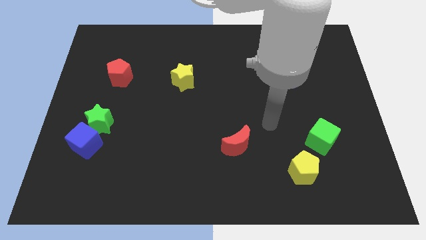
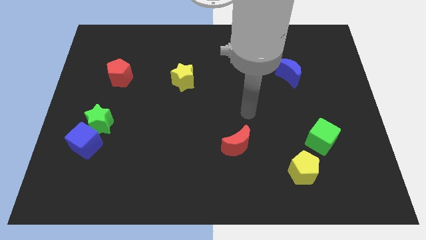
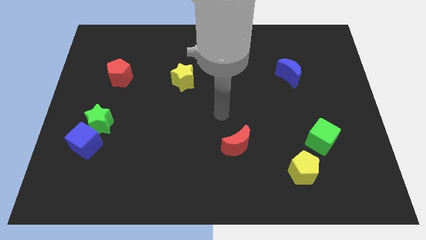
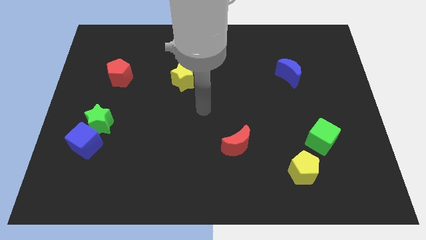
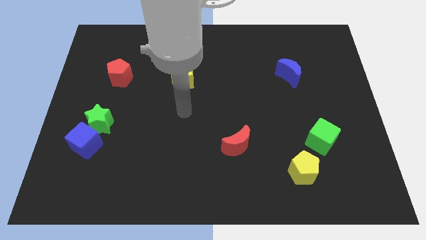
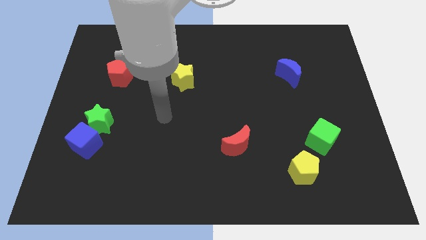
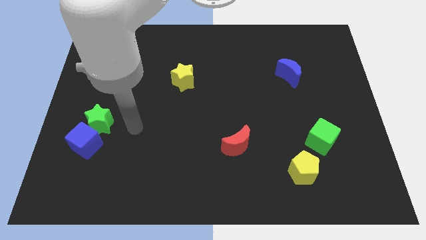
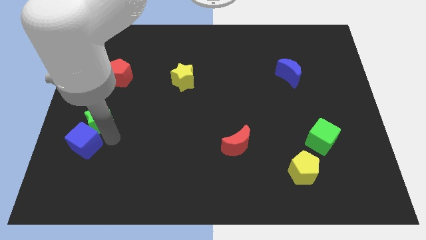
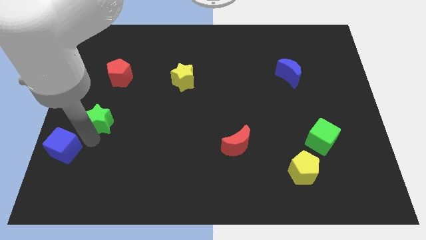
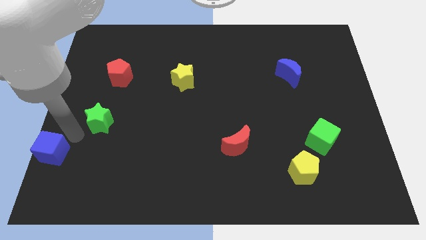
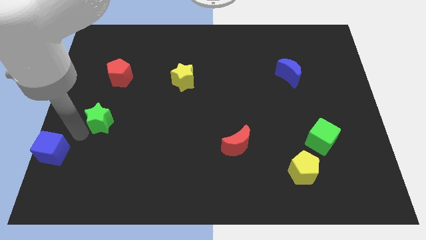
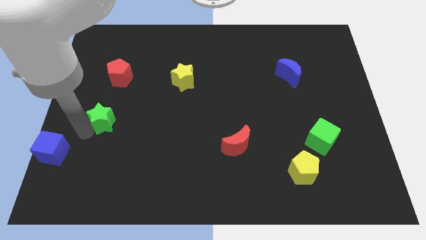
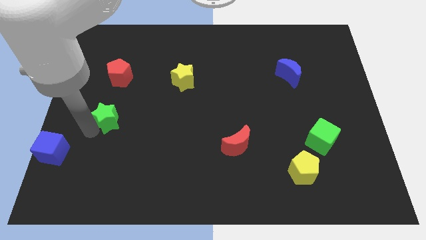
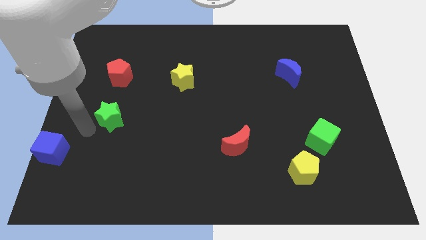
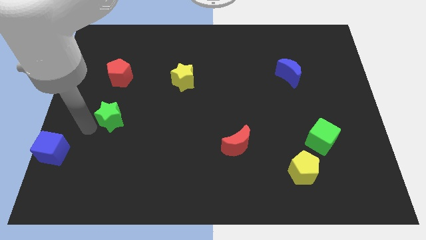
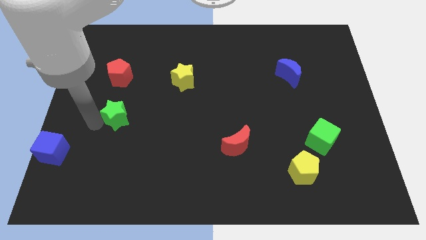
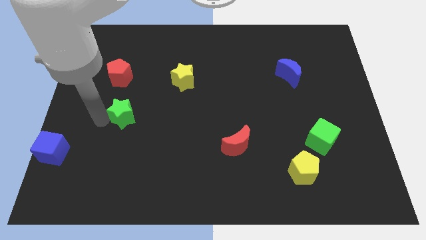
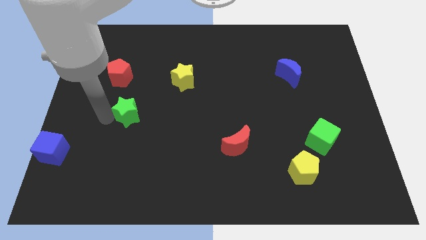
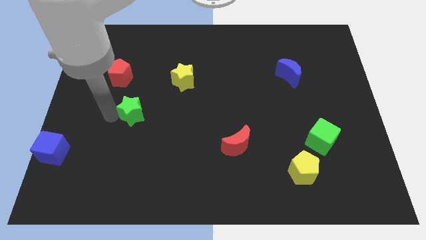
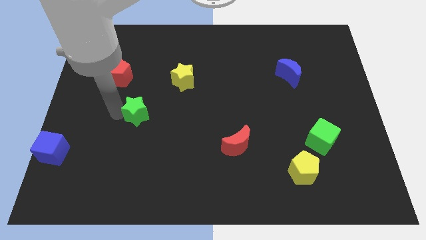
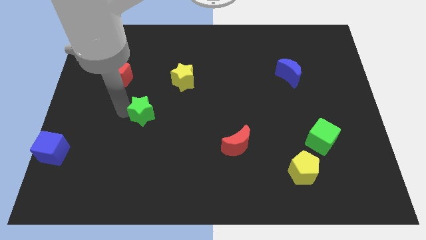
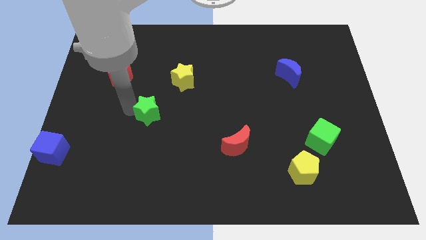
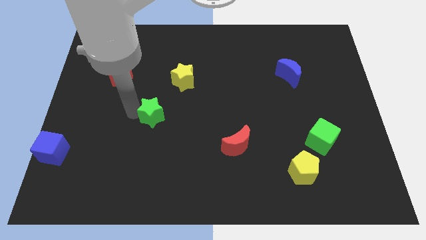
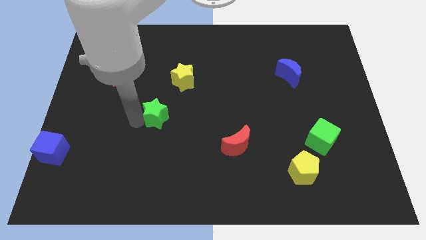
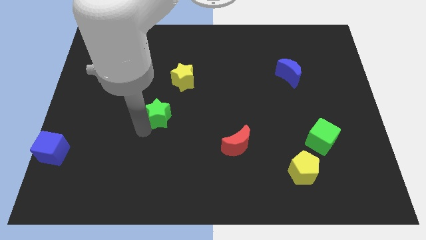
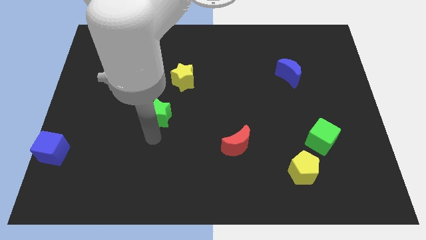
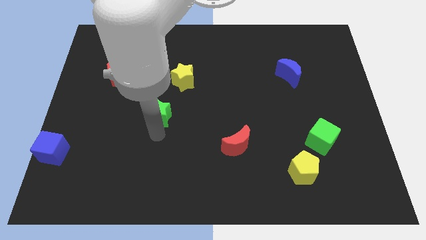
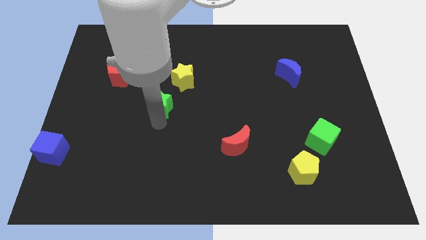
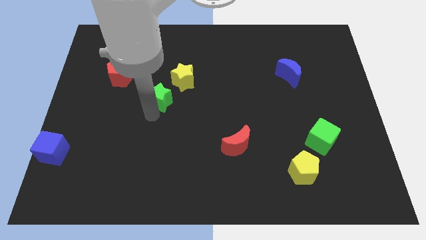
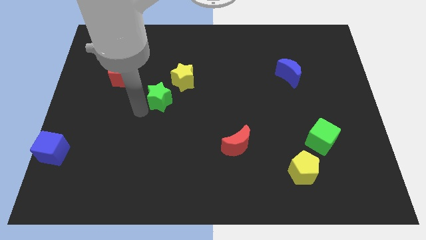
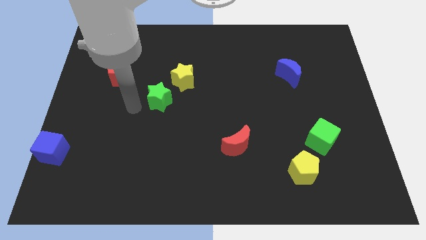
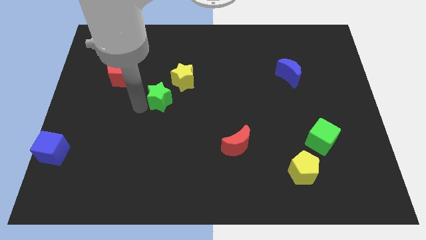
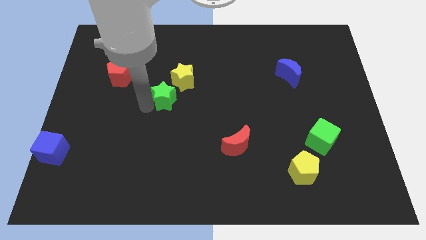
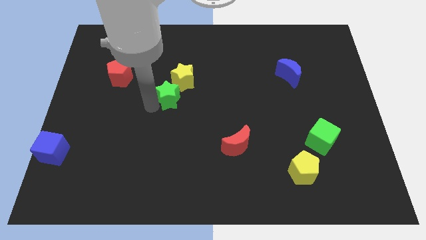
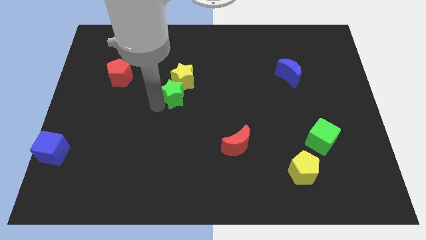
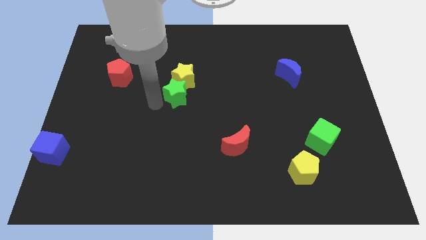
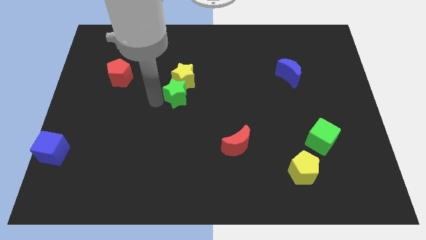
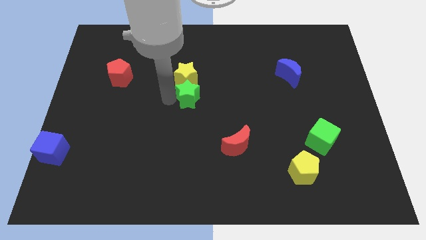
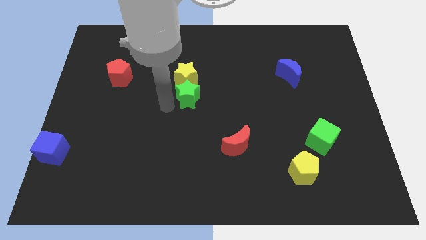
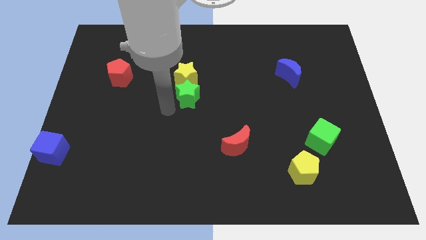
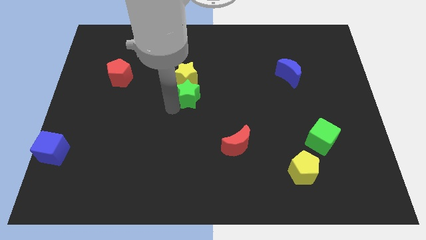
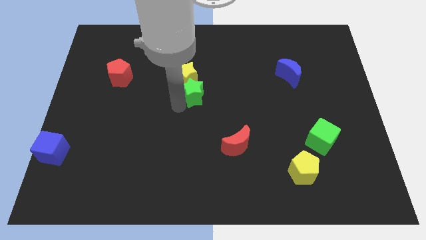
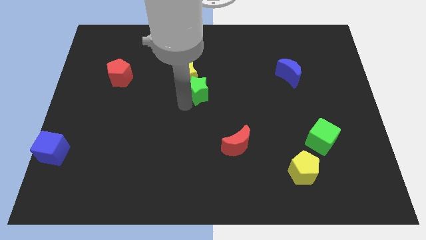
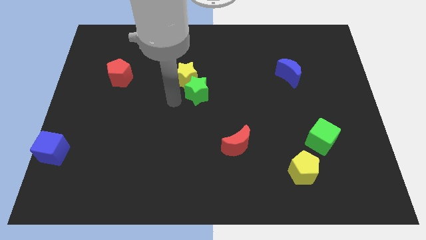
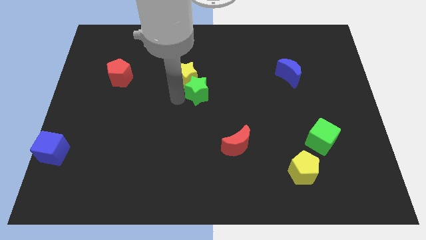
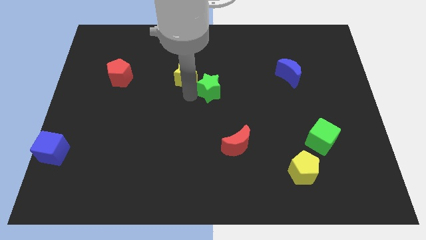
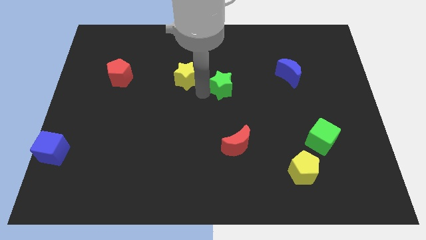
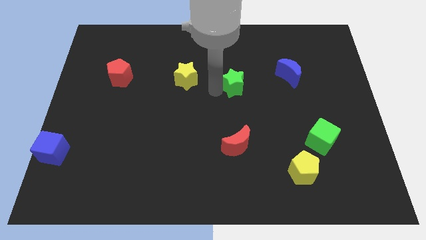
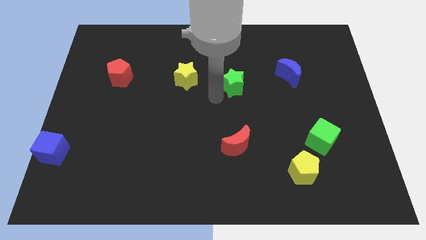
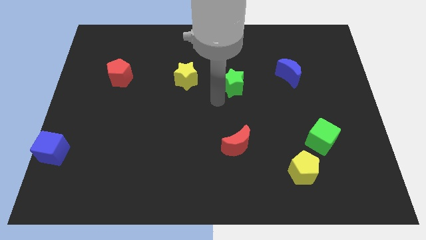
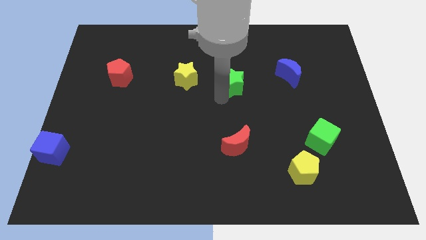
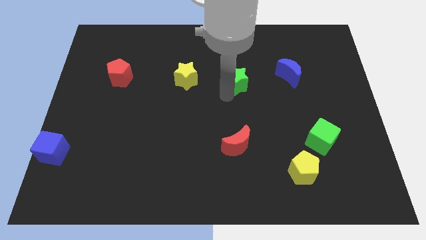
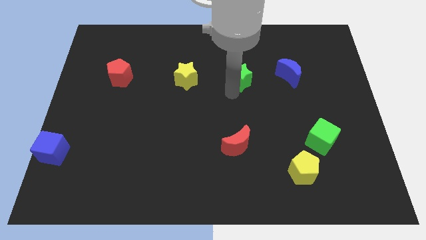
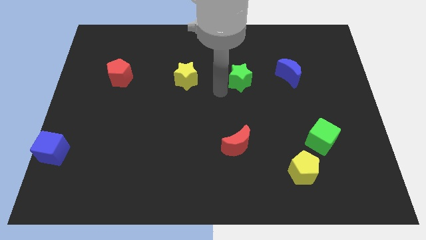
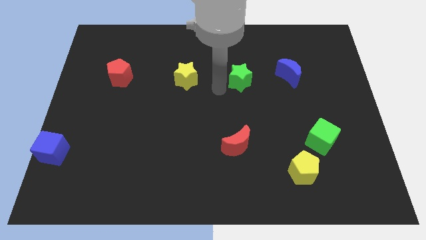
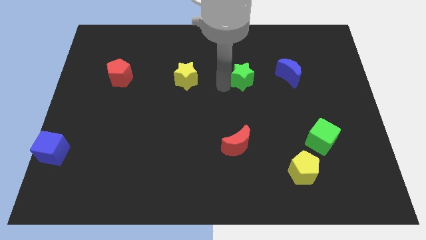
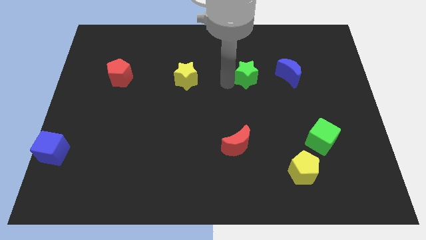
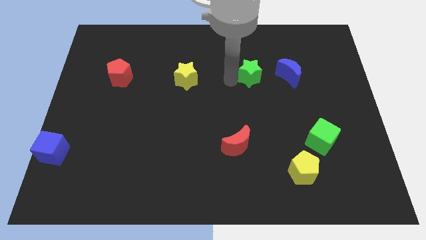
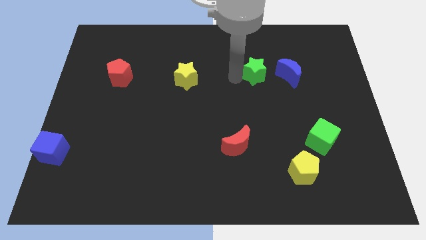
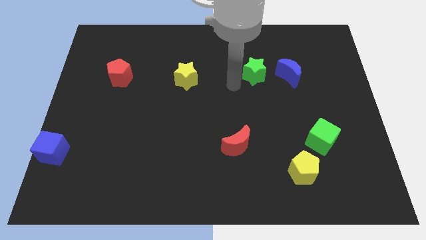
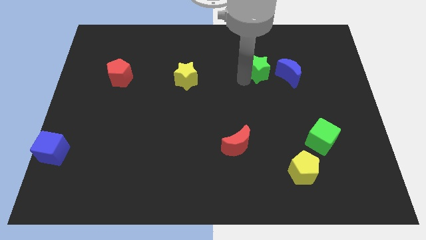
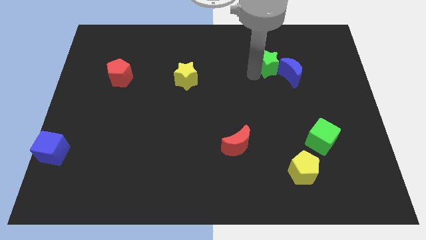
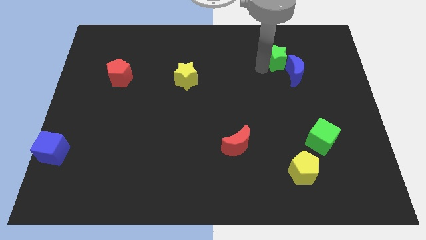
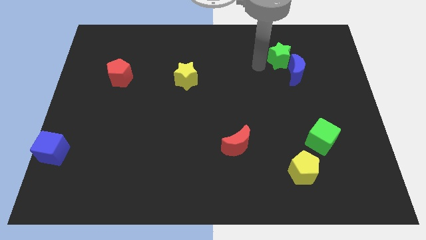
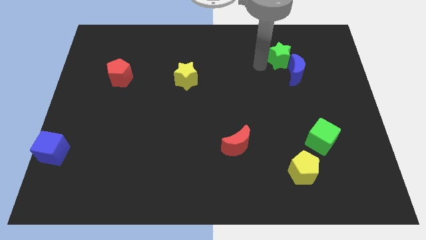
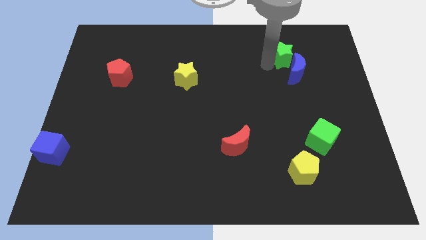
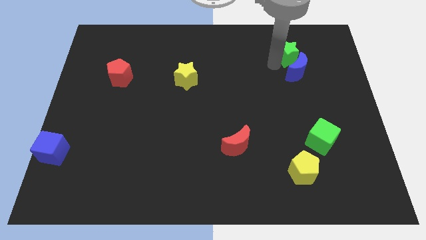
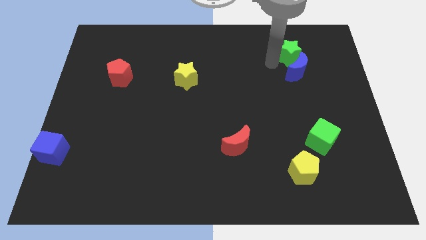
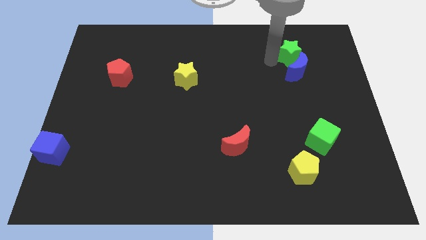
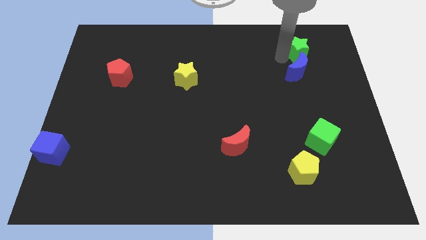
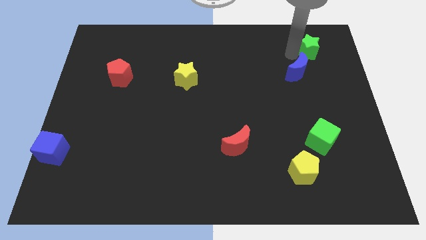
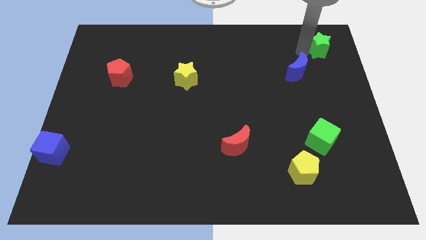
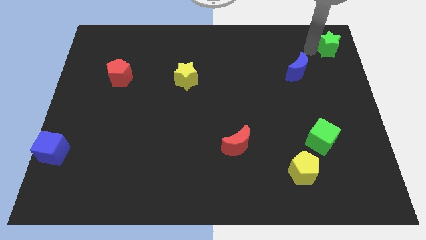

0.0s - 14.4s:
slide the green star to the top right corner
